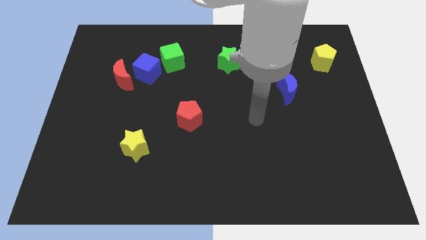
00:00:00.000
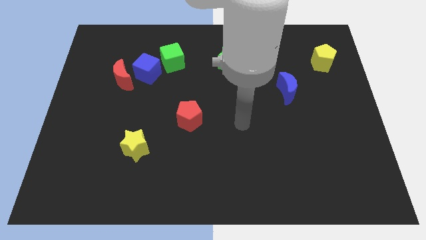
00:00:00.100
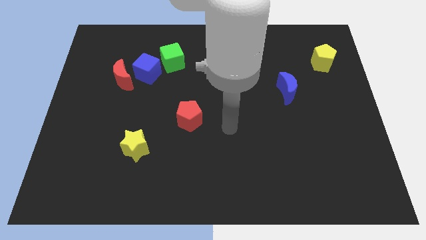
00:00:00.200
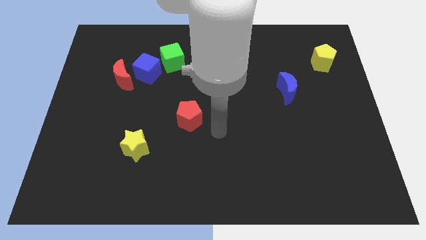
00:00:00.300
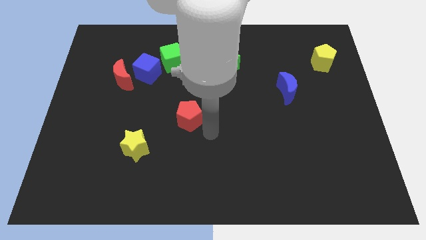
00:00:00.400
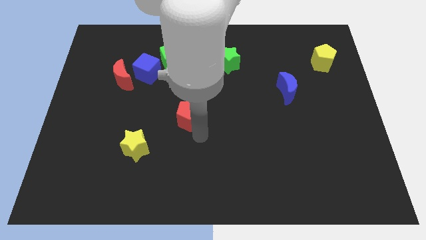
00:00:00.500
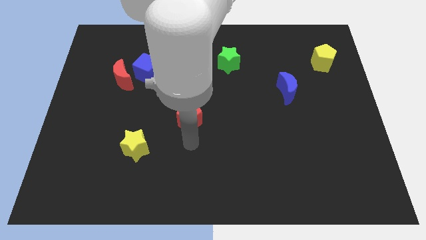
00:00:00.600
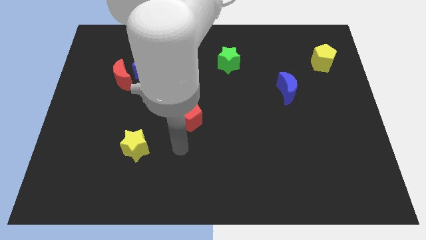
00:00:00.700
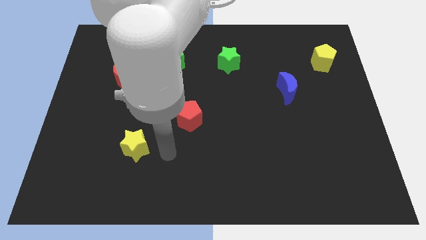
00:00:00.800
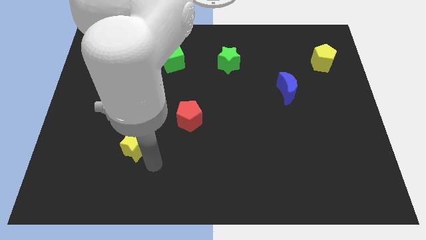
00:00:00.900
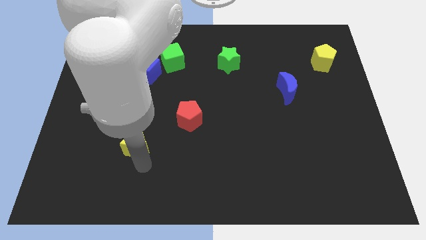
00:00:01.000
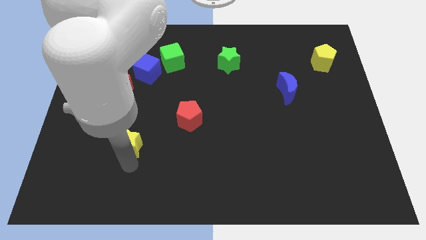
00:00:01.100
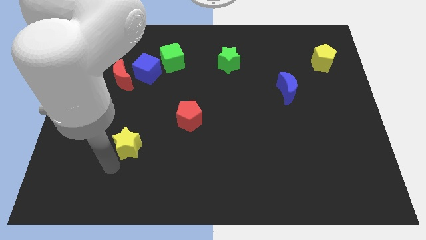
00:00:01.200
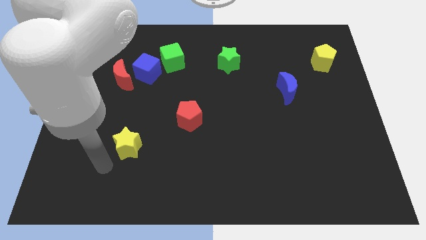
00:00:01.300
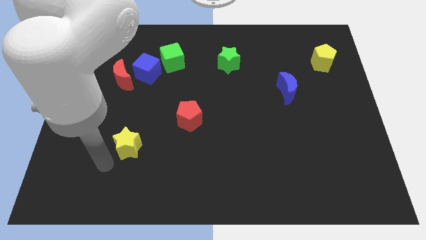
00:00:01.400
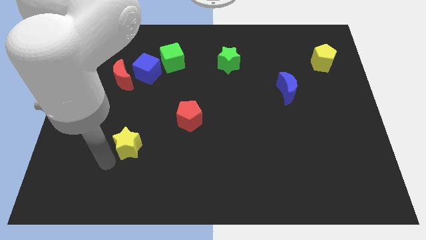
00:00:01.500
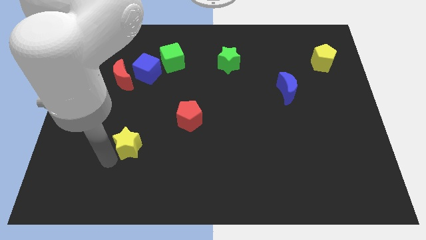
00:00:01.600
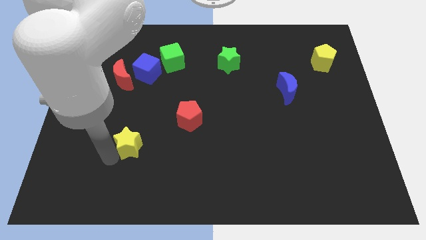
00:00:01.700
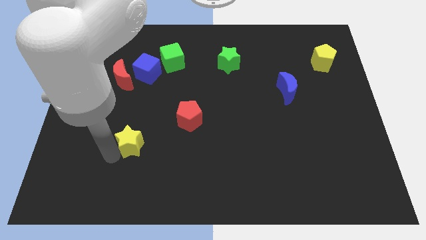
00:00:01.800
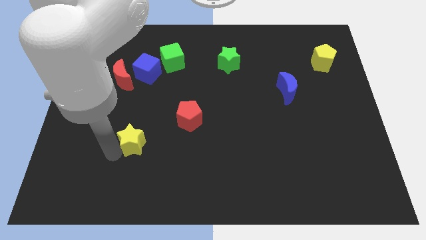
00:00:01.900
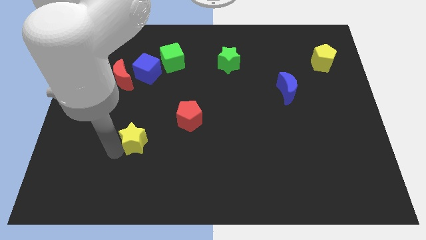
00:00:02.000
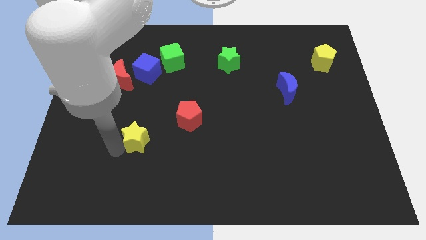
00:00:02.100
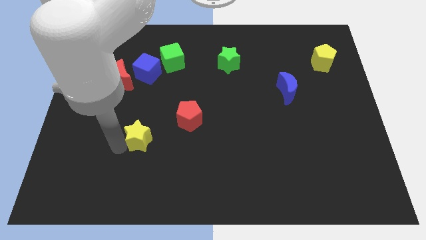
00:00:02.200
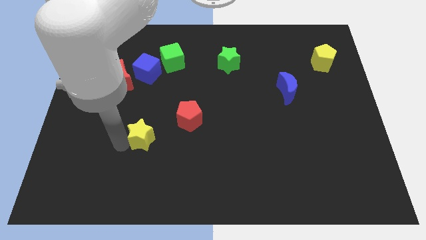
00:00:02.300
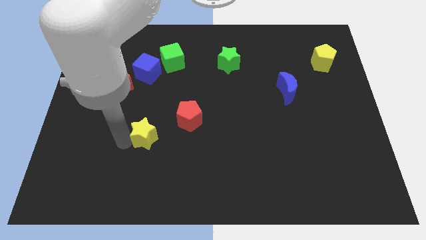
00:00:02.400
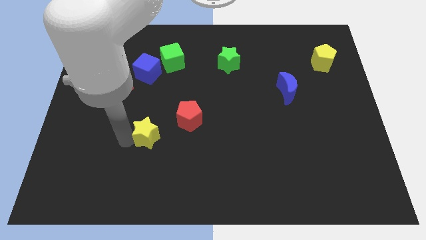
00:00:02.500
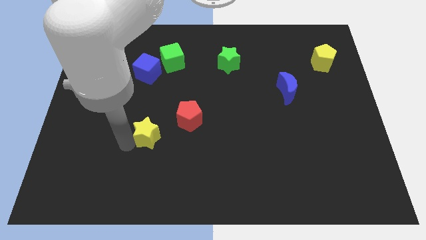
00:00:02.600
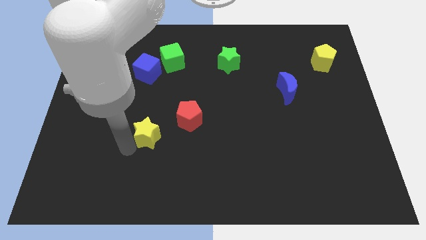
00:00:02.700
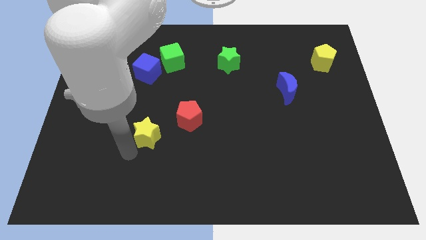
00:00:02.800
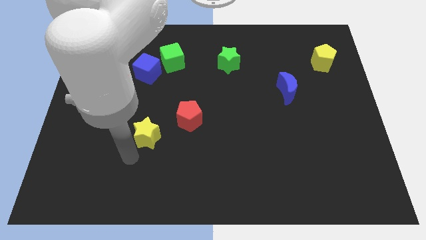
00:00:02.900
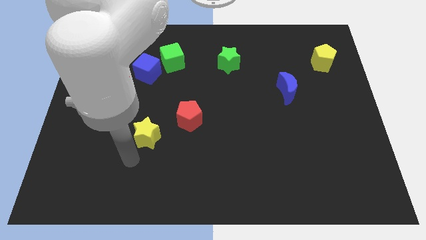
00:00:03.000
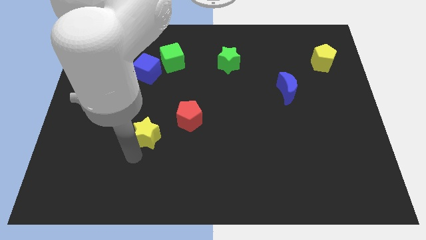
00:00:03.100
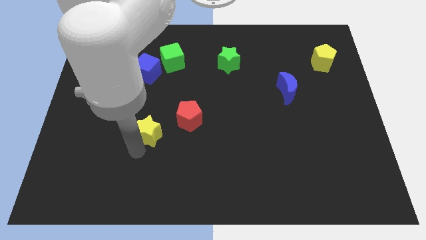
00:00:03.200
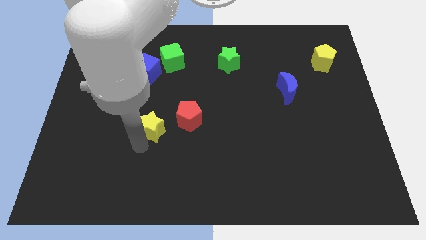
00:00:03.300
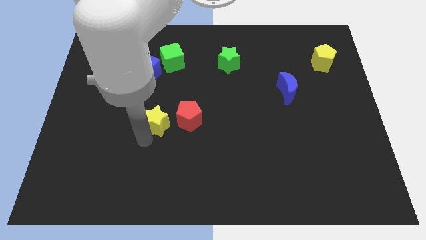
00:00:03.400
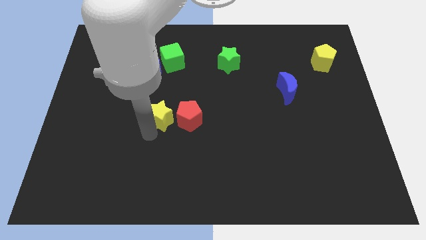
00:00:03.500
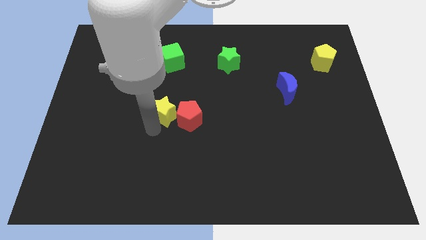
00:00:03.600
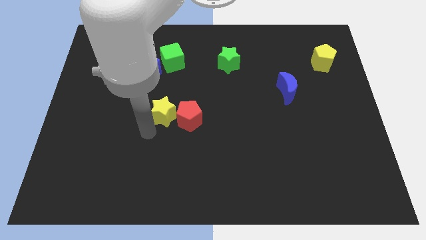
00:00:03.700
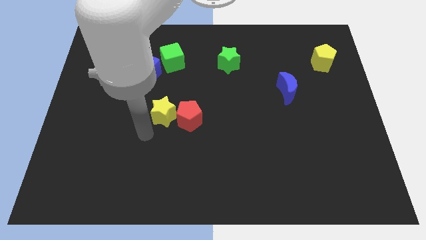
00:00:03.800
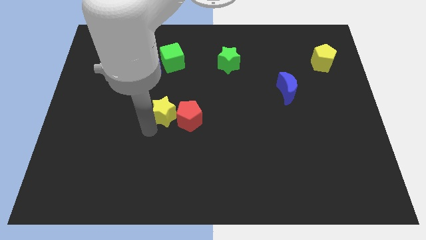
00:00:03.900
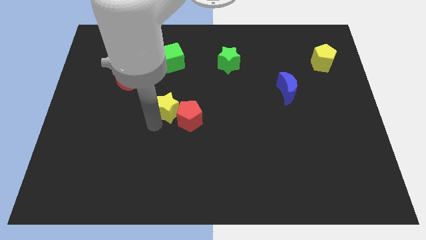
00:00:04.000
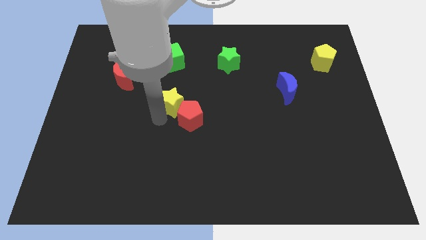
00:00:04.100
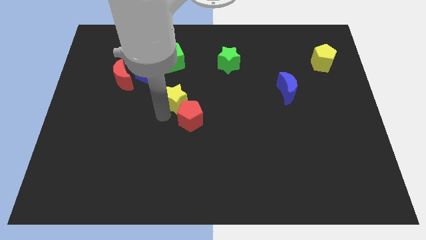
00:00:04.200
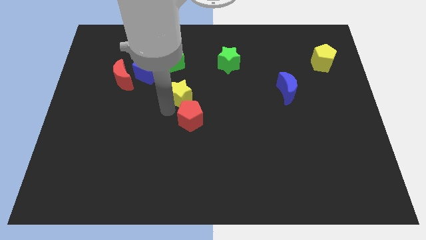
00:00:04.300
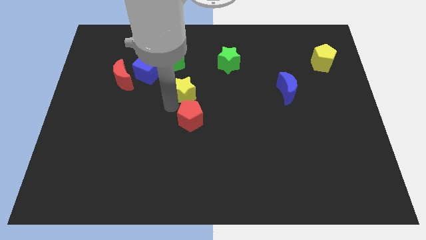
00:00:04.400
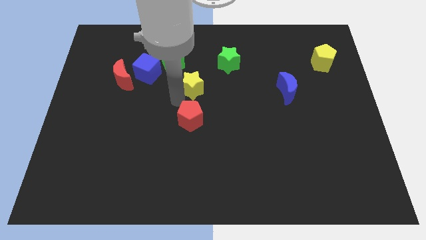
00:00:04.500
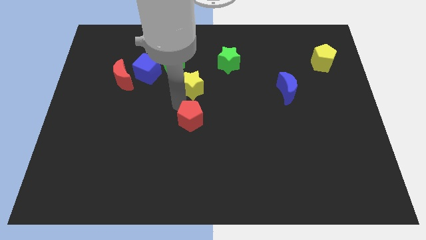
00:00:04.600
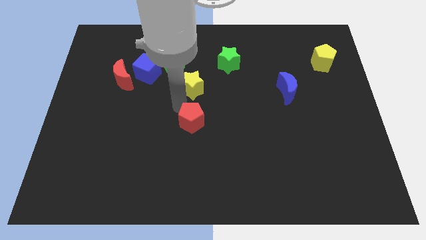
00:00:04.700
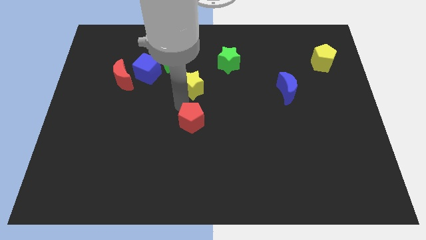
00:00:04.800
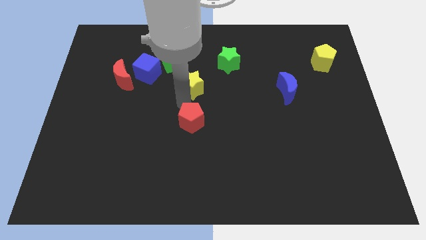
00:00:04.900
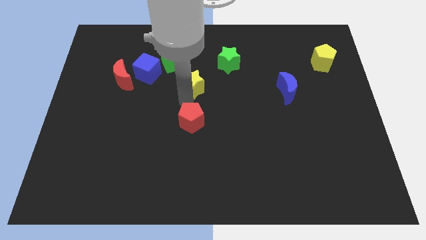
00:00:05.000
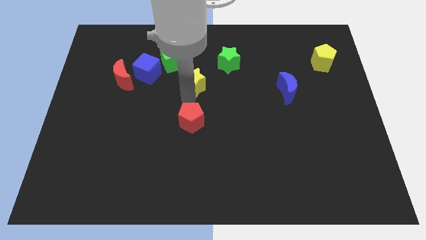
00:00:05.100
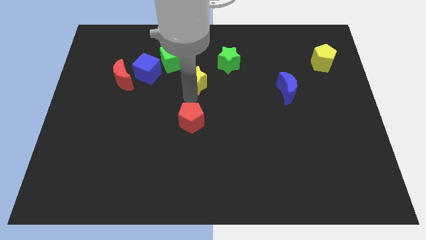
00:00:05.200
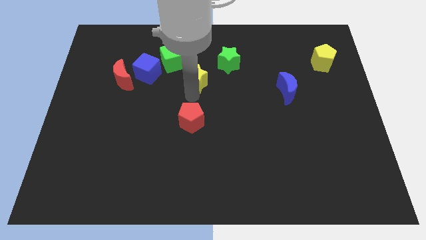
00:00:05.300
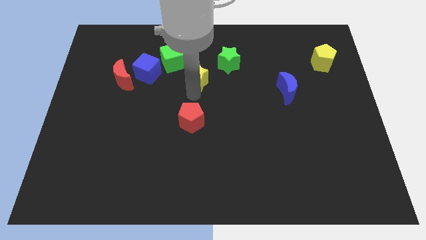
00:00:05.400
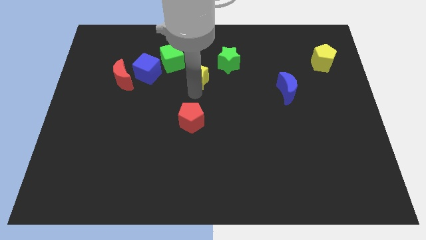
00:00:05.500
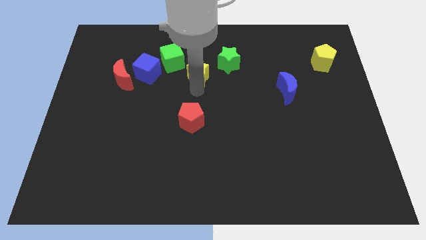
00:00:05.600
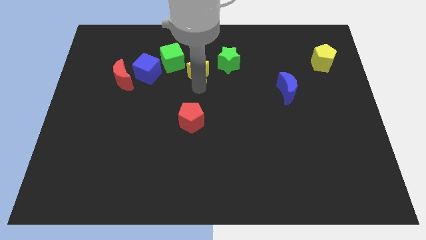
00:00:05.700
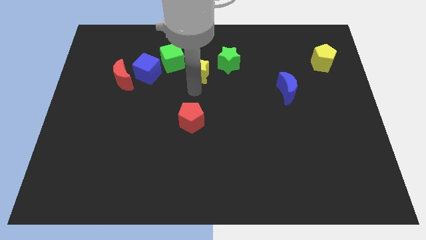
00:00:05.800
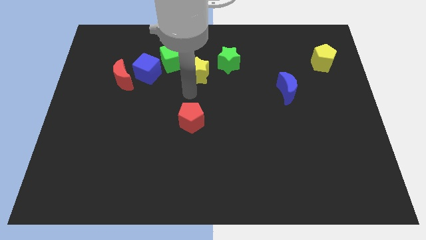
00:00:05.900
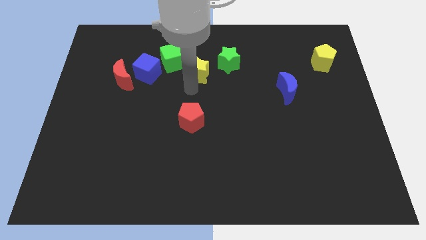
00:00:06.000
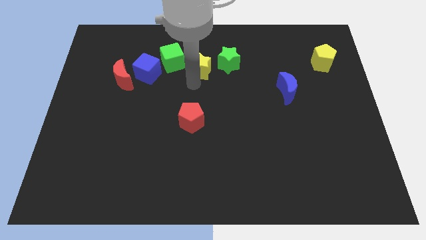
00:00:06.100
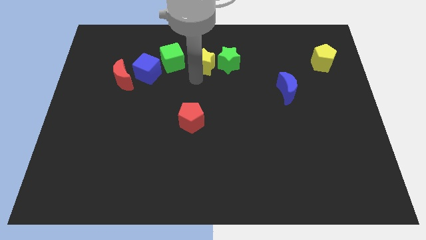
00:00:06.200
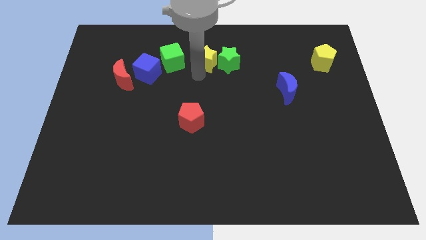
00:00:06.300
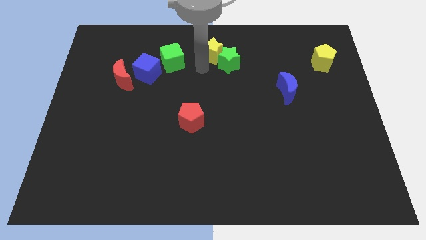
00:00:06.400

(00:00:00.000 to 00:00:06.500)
push the yellow star to the towards your base
